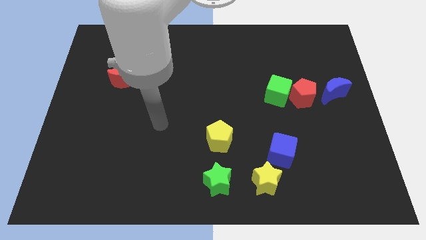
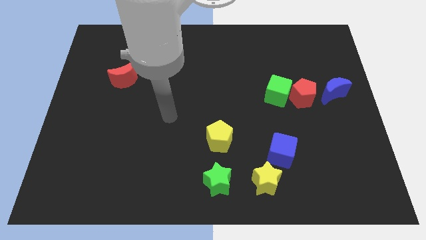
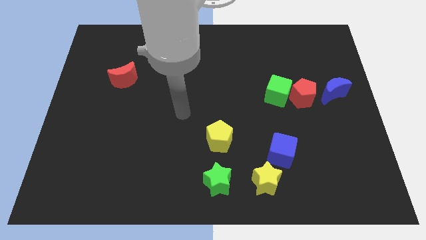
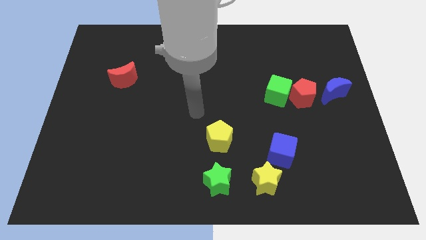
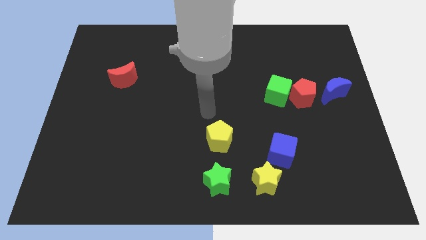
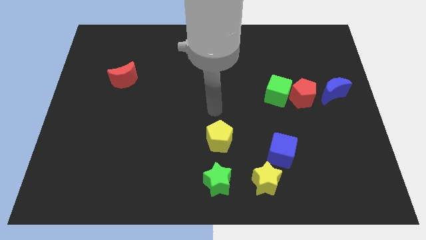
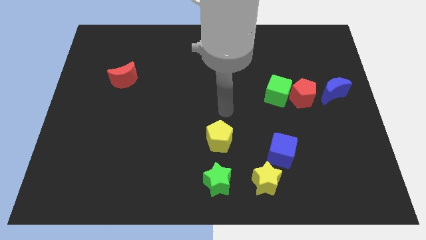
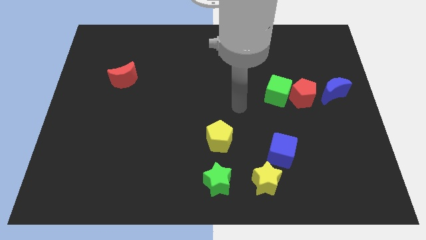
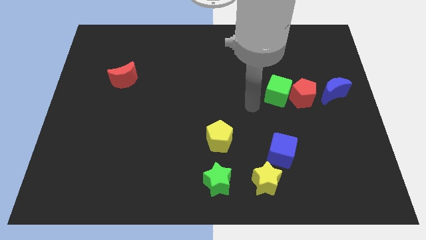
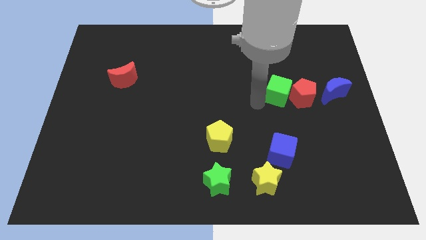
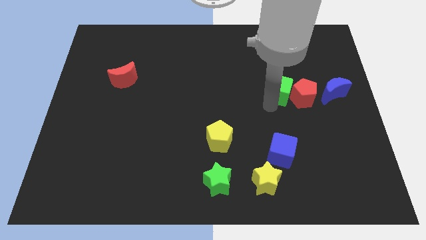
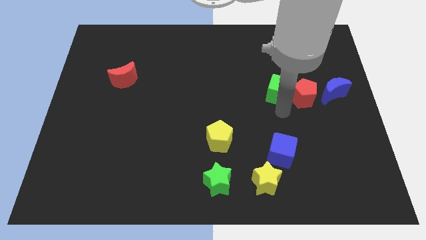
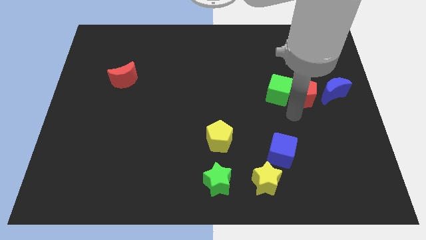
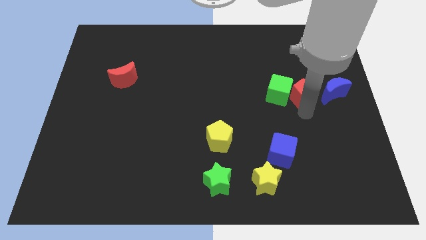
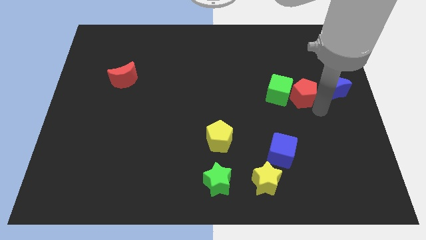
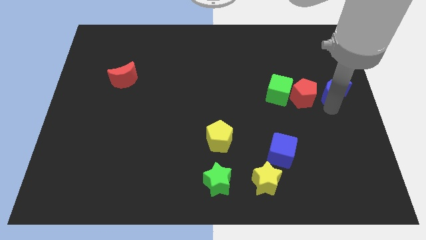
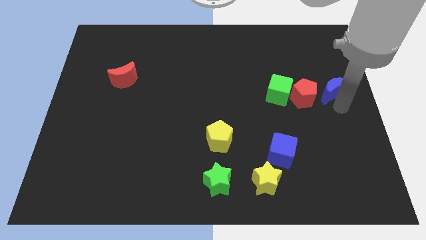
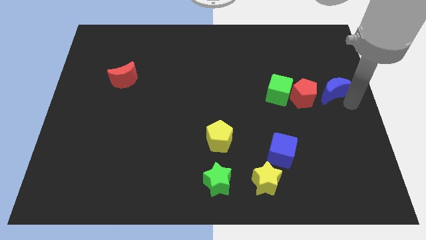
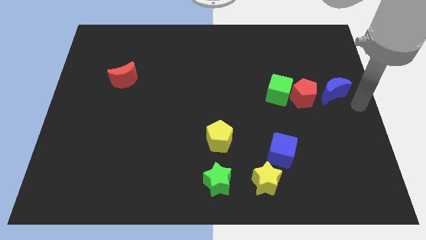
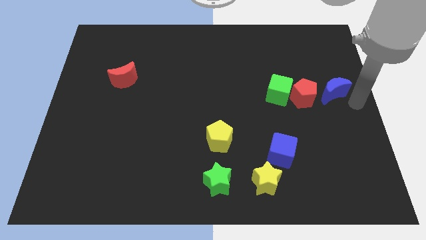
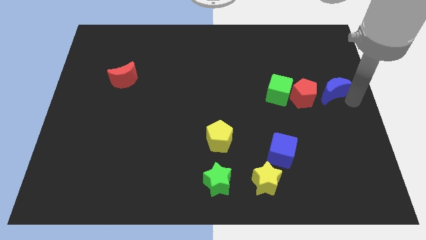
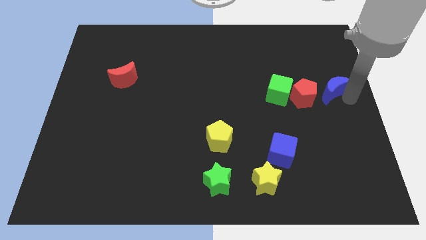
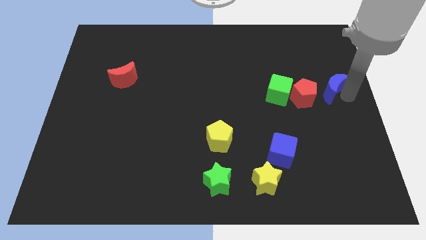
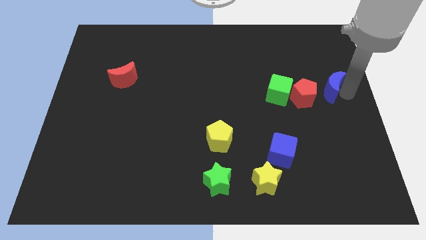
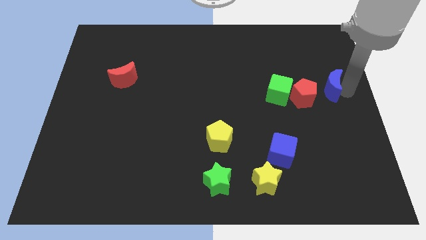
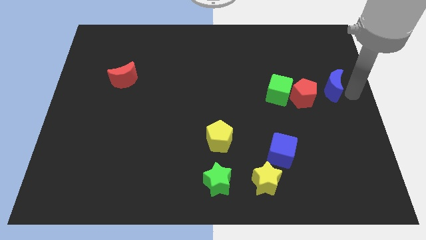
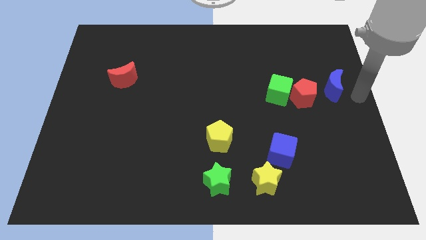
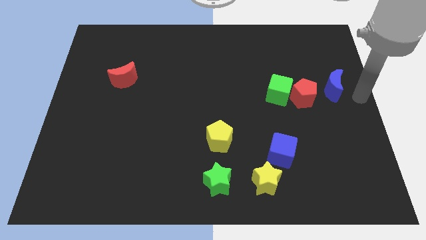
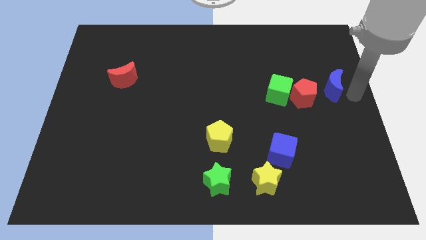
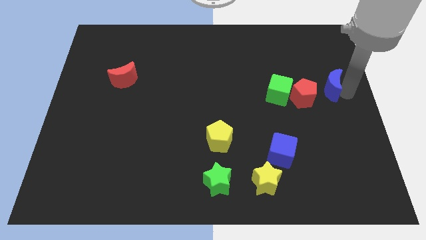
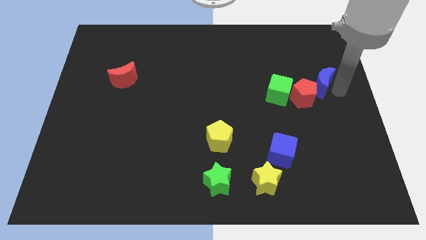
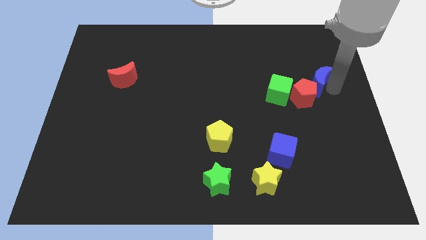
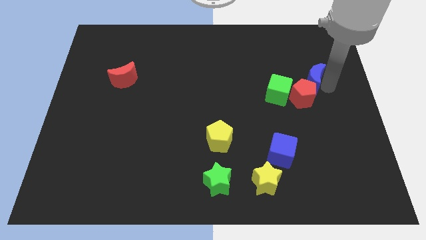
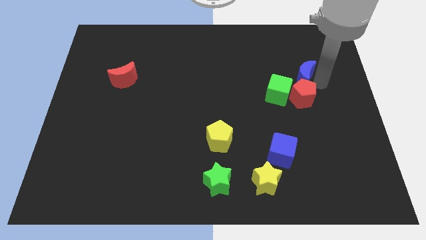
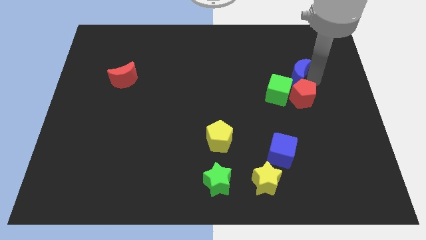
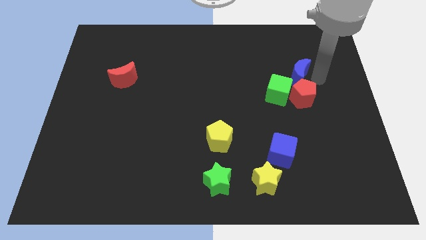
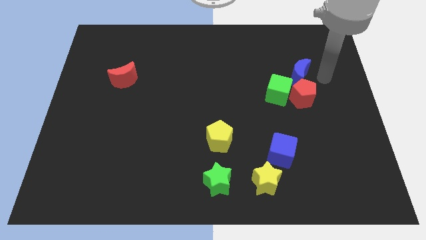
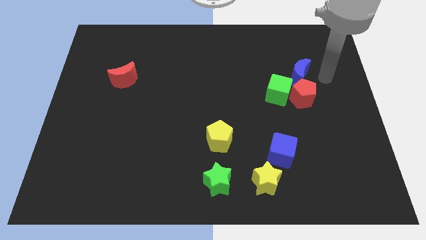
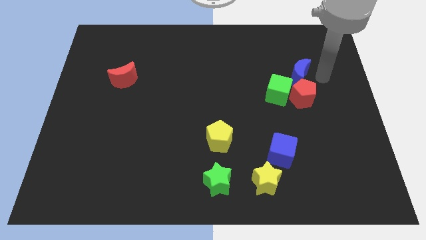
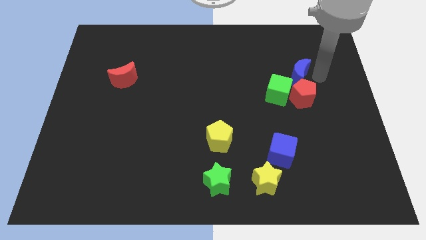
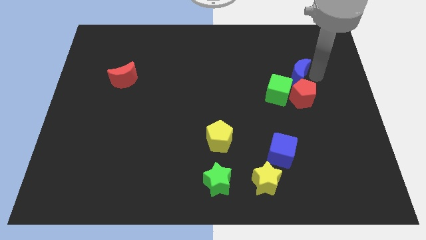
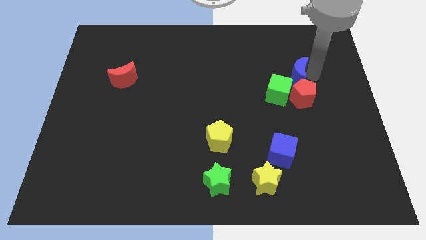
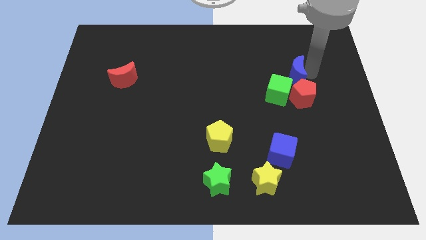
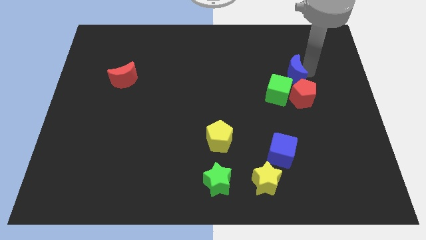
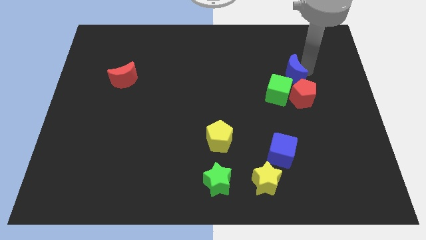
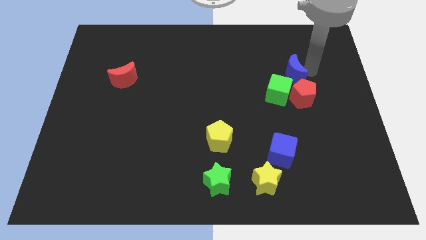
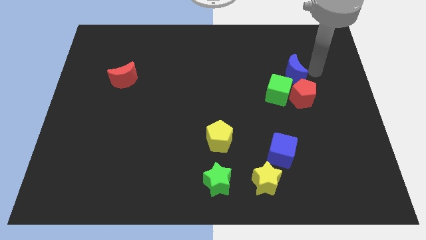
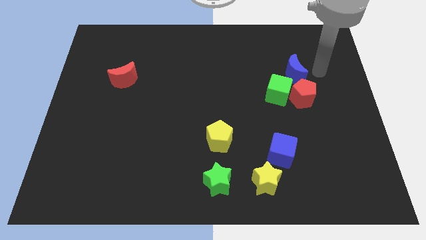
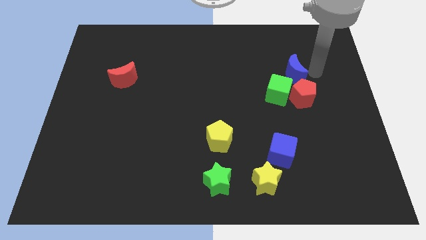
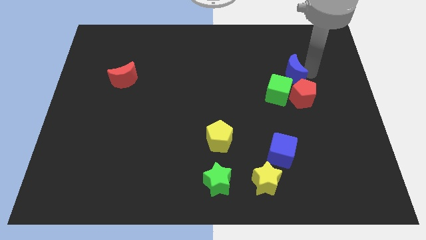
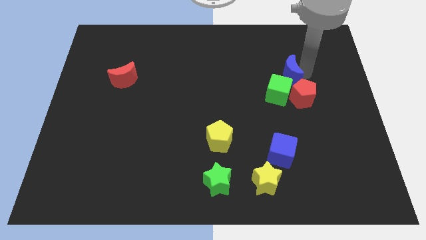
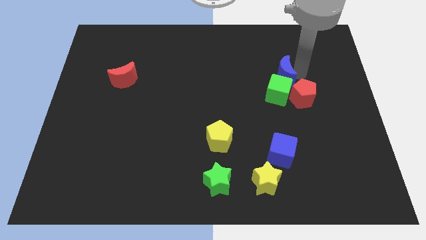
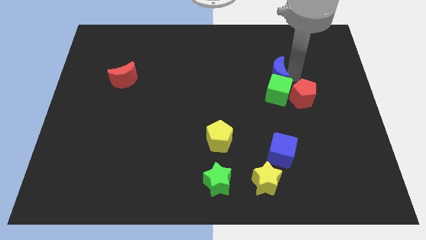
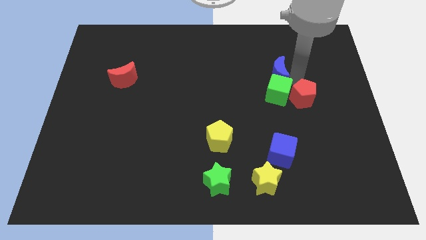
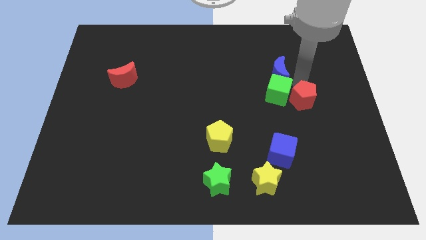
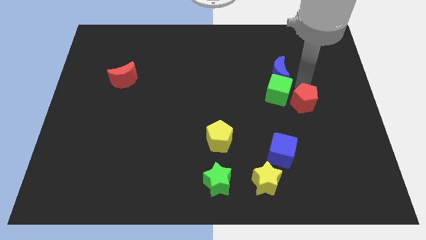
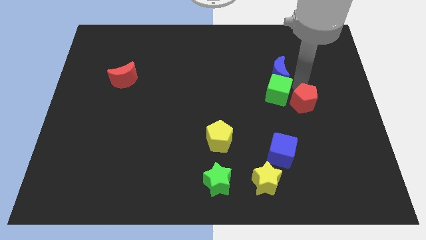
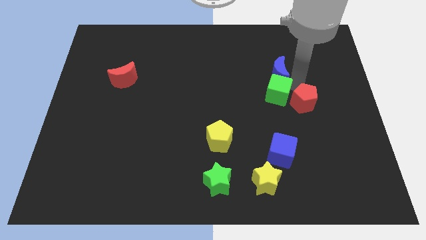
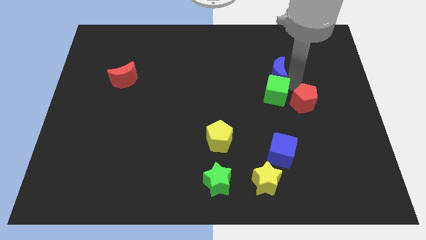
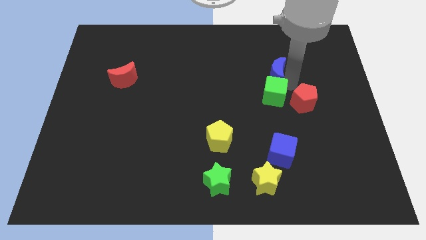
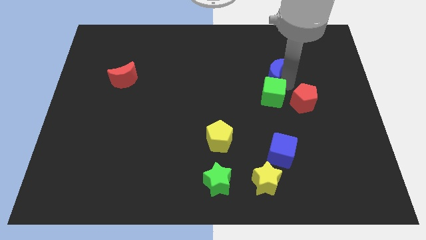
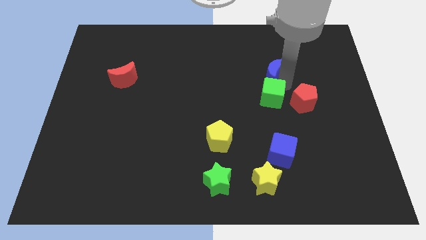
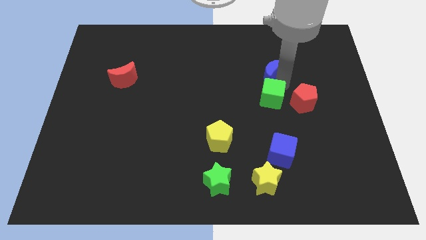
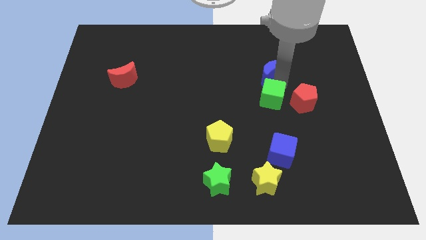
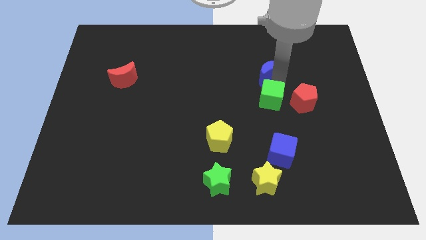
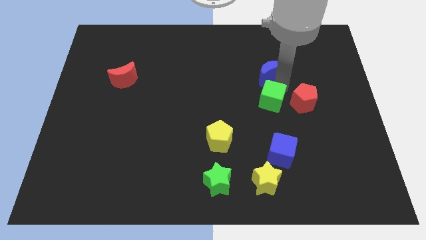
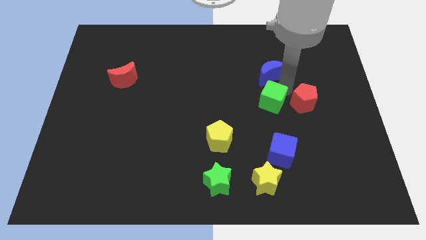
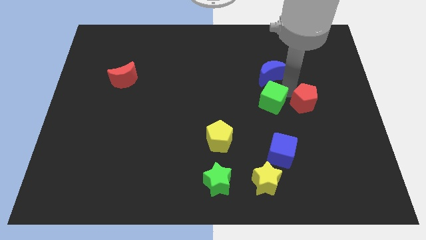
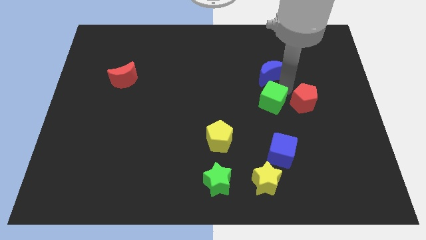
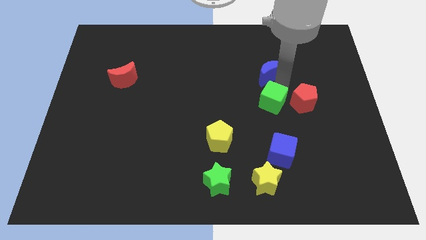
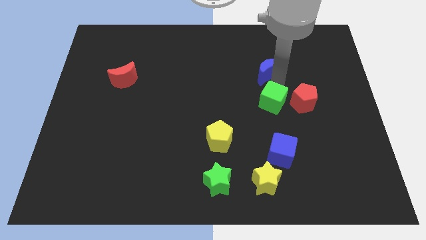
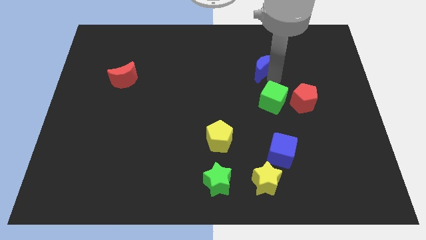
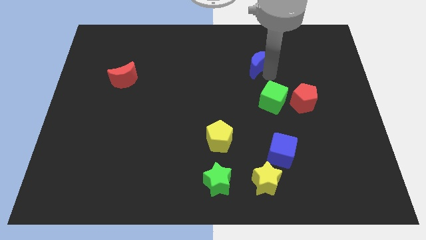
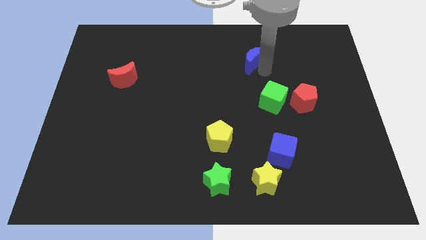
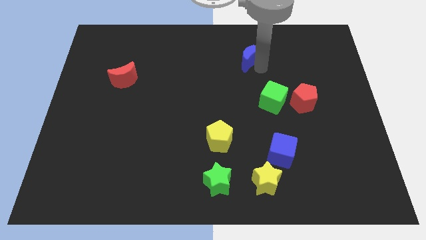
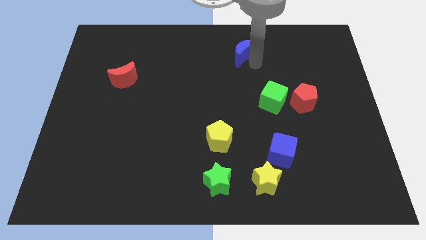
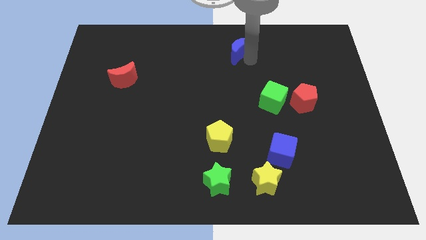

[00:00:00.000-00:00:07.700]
put the blue moon to the top side
